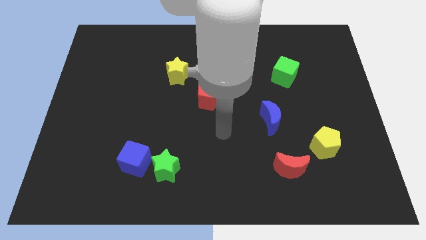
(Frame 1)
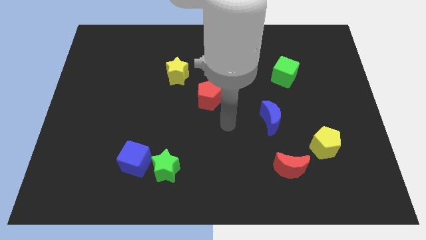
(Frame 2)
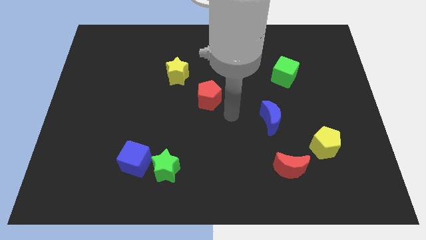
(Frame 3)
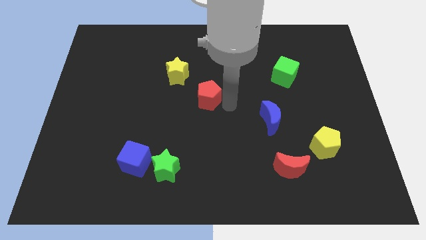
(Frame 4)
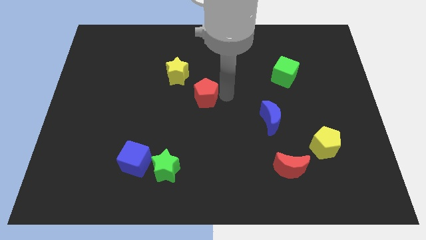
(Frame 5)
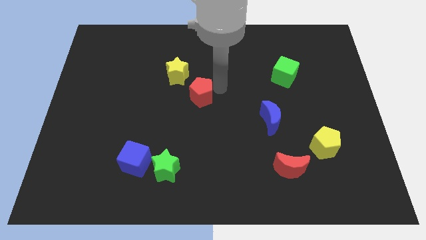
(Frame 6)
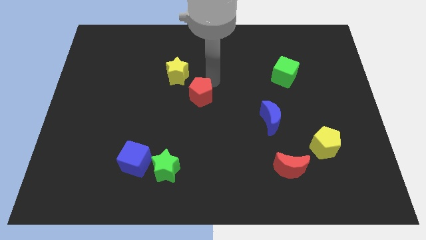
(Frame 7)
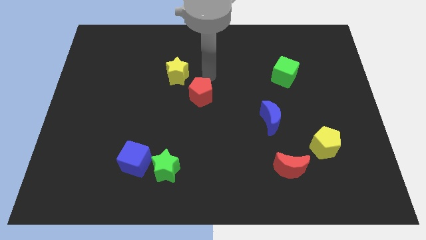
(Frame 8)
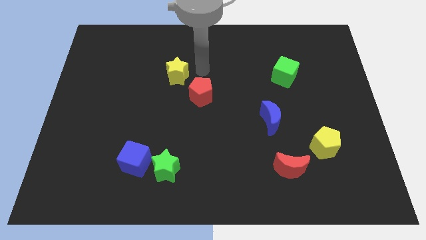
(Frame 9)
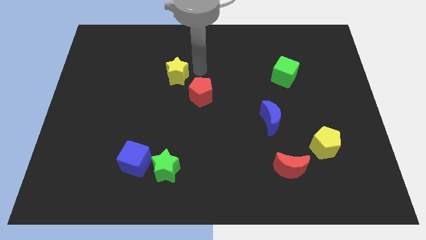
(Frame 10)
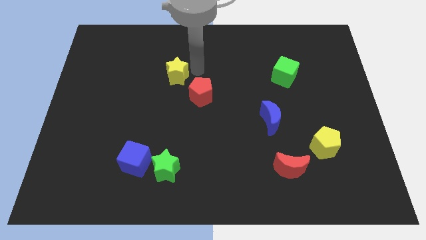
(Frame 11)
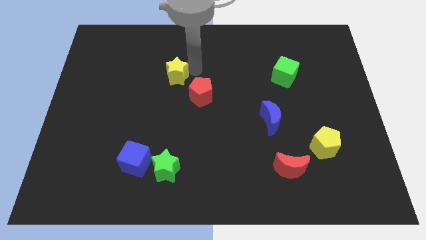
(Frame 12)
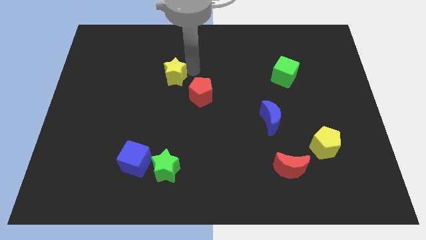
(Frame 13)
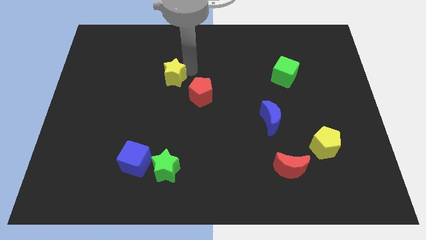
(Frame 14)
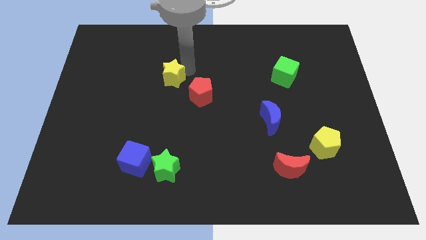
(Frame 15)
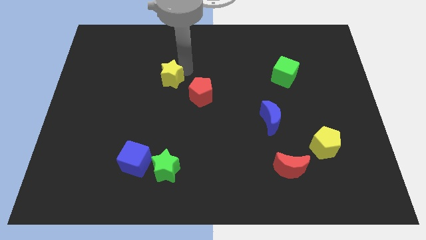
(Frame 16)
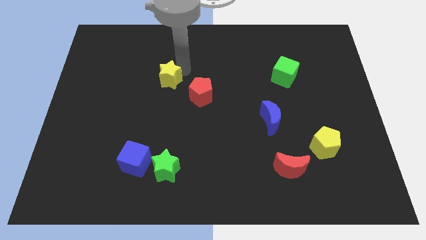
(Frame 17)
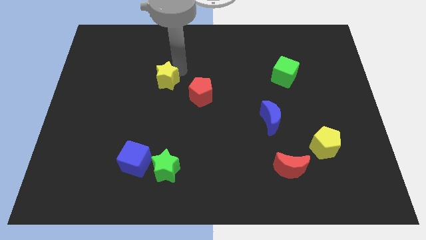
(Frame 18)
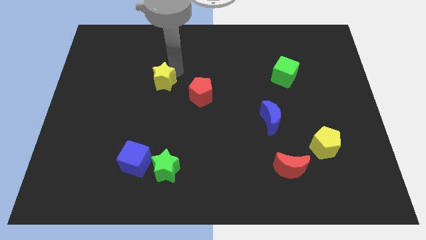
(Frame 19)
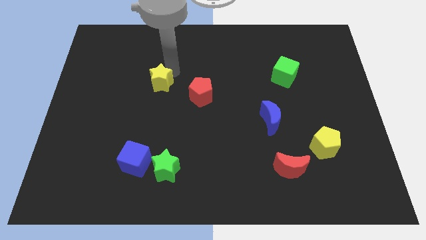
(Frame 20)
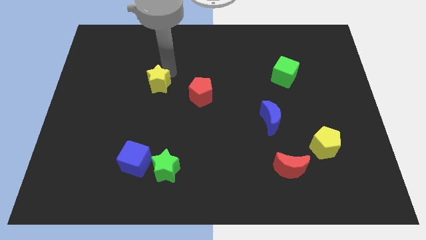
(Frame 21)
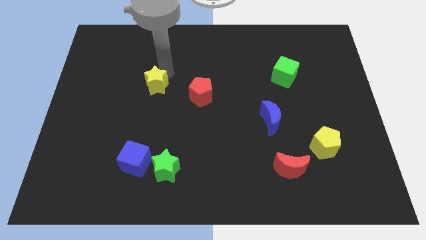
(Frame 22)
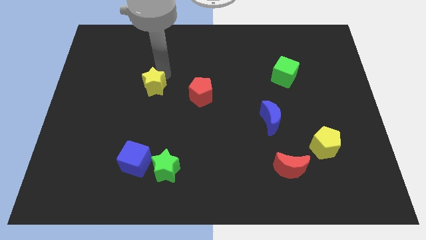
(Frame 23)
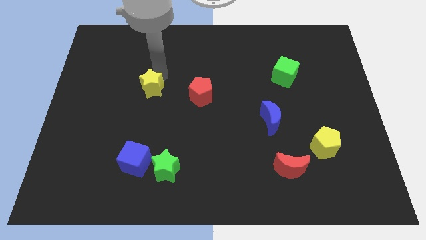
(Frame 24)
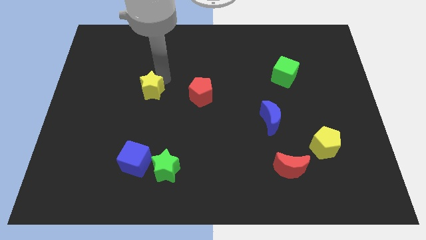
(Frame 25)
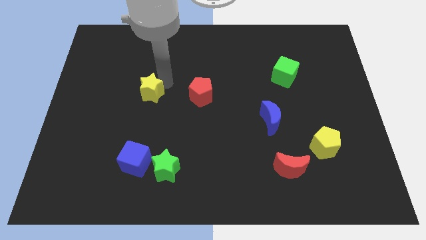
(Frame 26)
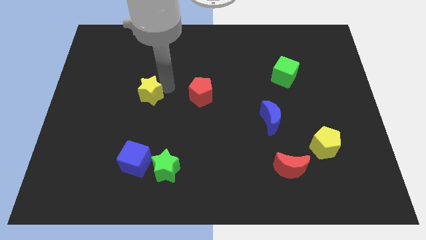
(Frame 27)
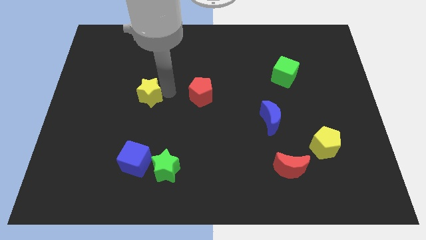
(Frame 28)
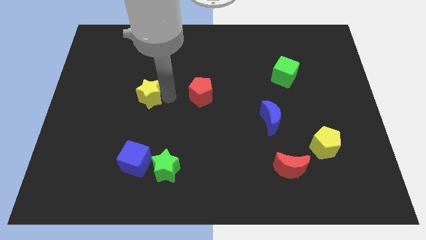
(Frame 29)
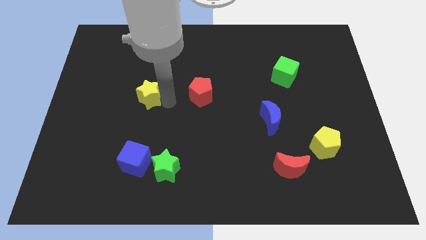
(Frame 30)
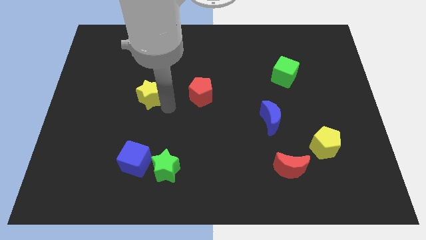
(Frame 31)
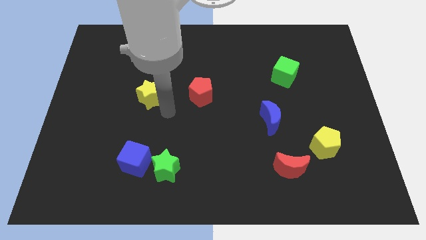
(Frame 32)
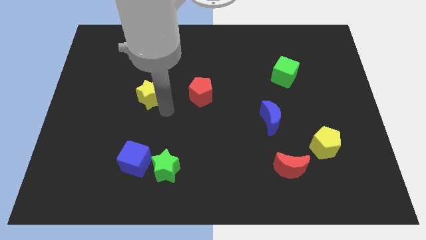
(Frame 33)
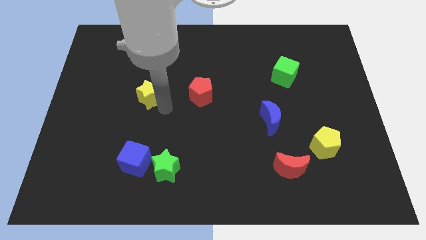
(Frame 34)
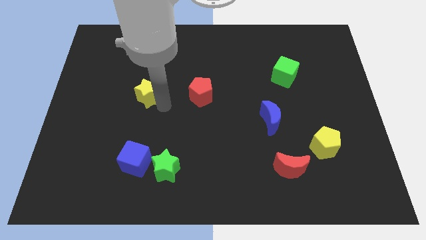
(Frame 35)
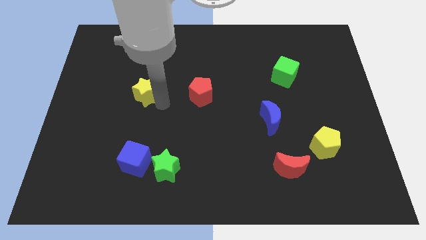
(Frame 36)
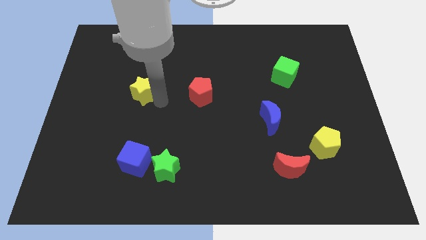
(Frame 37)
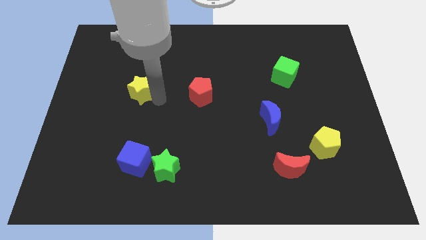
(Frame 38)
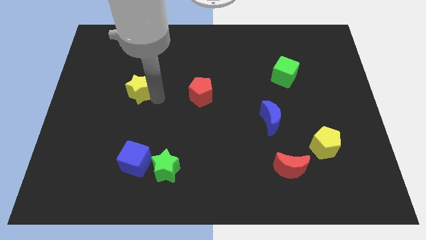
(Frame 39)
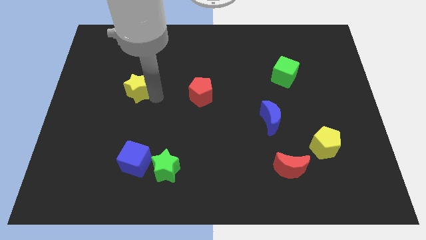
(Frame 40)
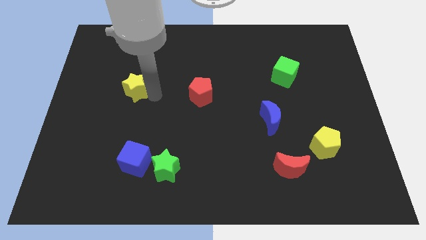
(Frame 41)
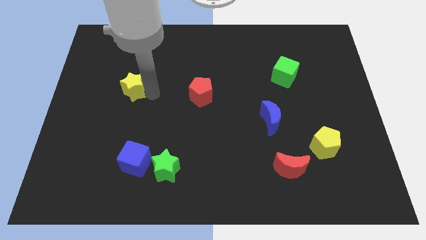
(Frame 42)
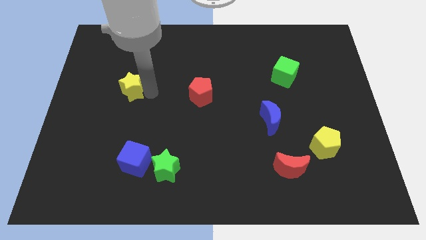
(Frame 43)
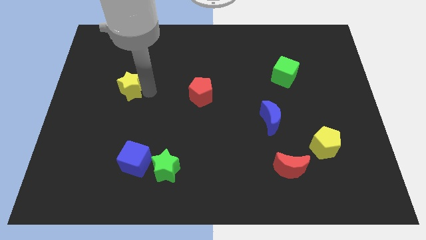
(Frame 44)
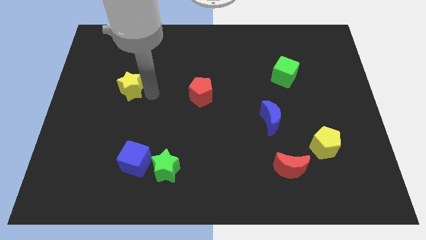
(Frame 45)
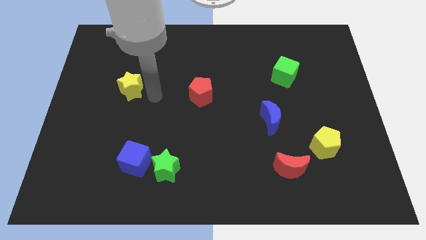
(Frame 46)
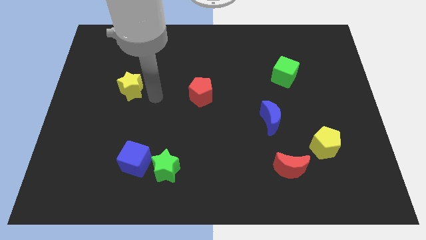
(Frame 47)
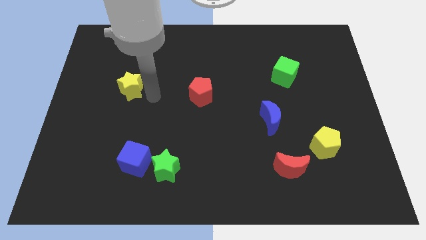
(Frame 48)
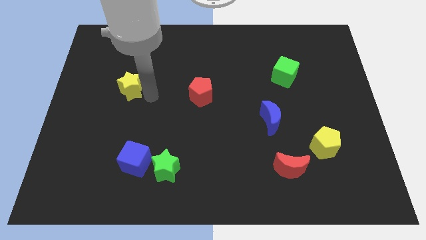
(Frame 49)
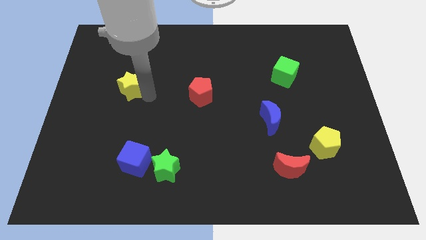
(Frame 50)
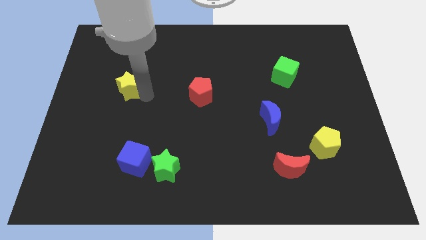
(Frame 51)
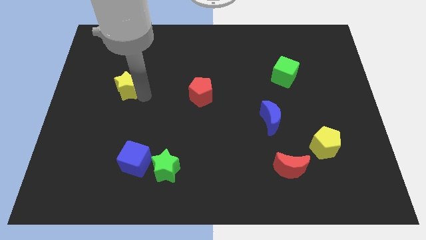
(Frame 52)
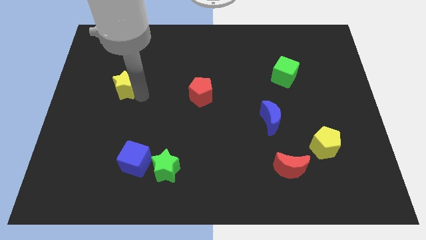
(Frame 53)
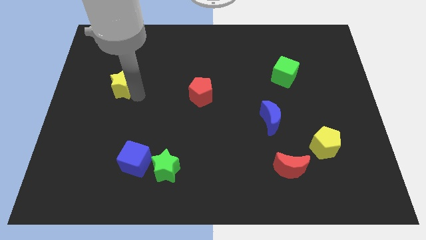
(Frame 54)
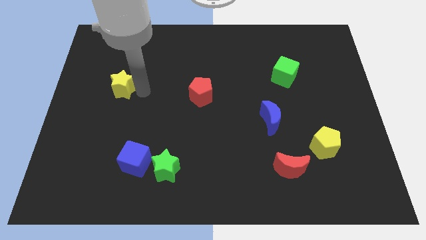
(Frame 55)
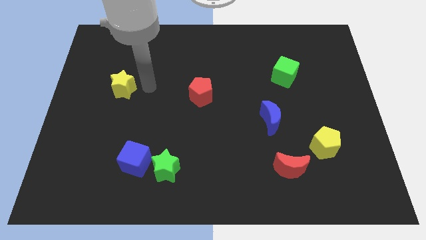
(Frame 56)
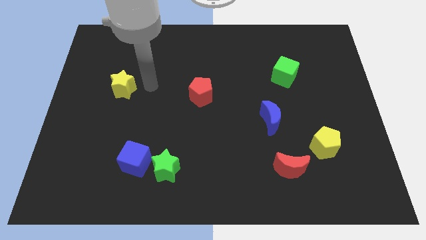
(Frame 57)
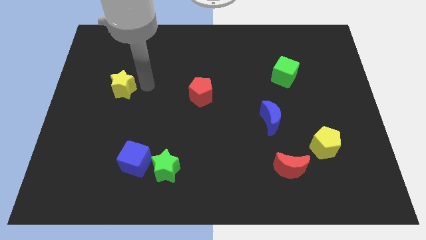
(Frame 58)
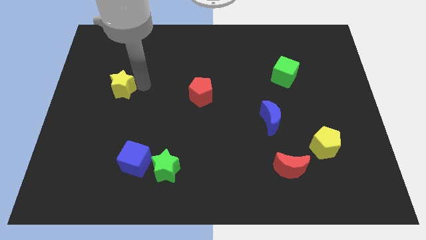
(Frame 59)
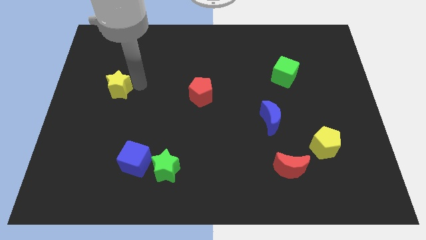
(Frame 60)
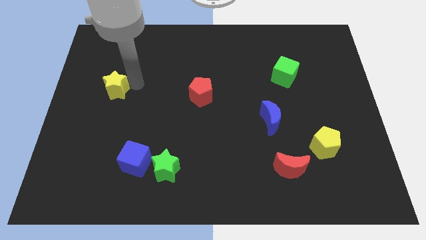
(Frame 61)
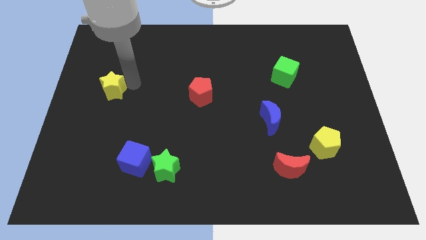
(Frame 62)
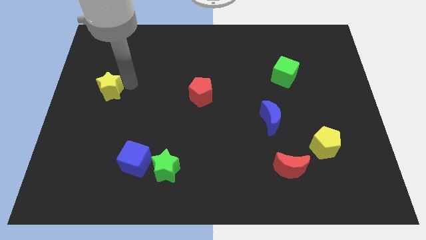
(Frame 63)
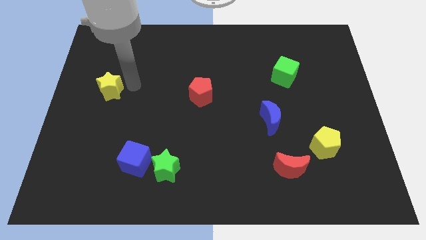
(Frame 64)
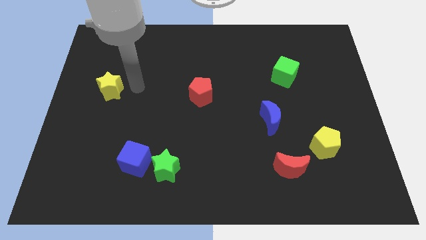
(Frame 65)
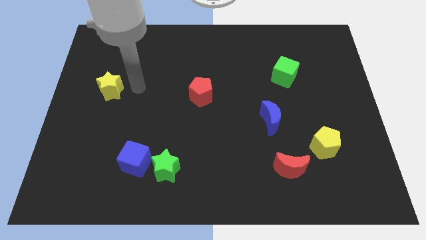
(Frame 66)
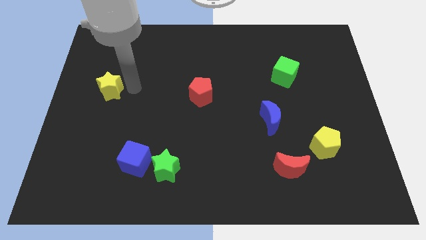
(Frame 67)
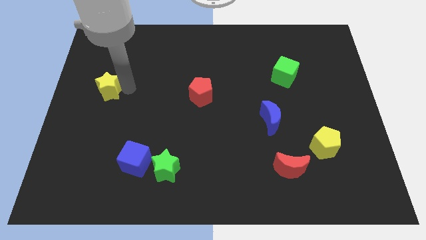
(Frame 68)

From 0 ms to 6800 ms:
push the yellow star to the left side

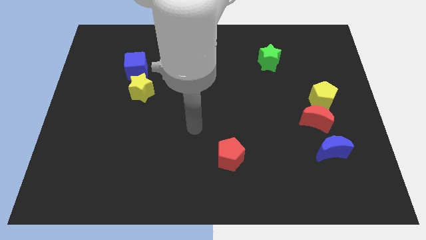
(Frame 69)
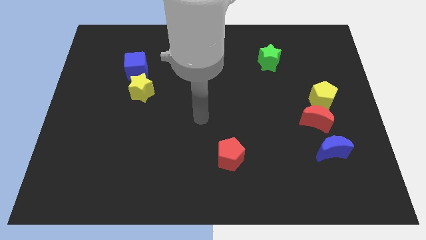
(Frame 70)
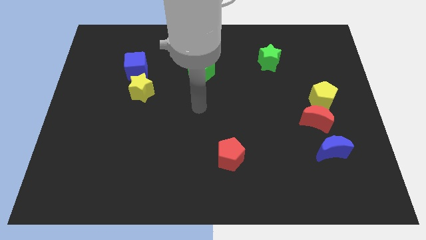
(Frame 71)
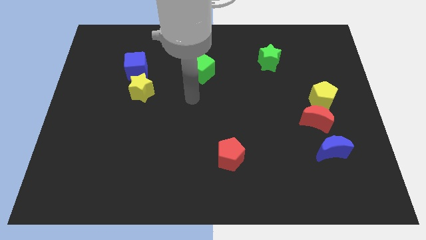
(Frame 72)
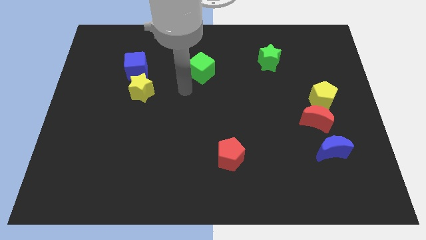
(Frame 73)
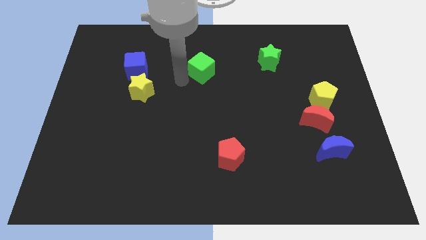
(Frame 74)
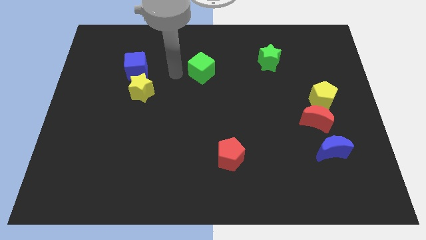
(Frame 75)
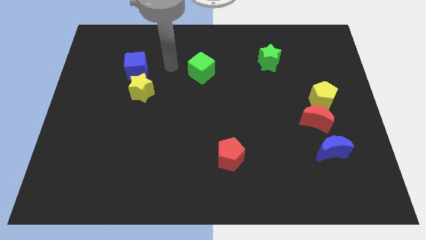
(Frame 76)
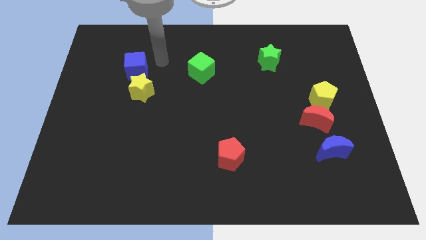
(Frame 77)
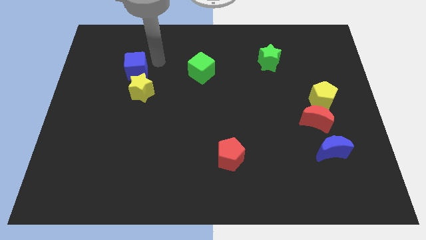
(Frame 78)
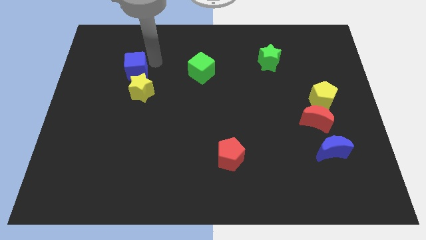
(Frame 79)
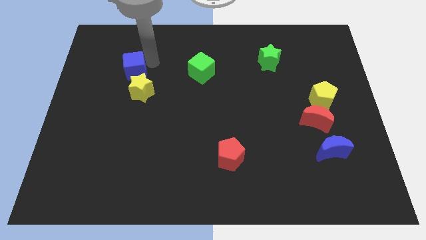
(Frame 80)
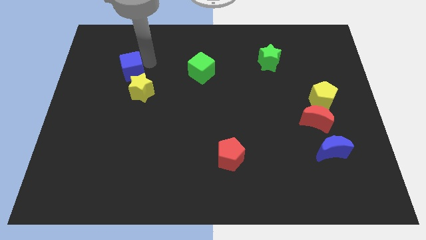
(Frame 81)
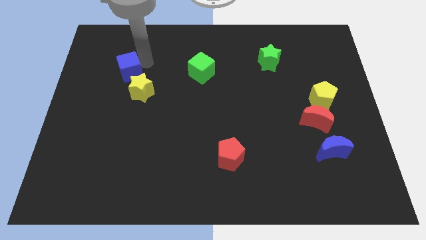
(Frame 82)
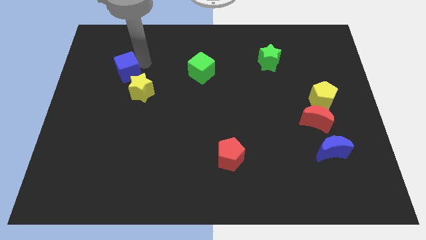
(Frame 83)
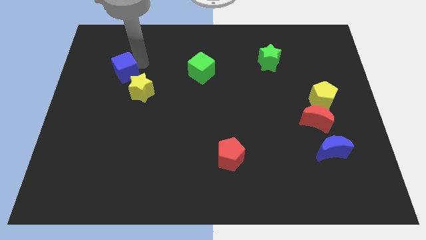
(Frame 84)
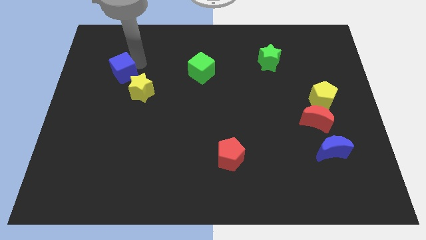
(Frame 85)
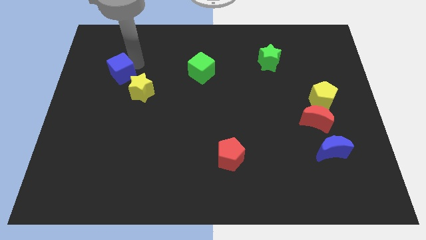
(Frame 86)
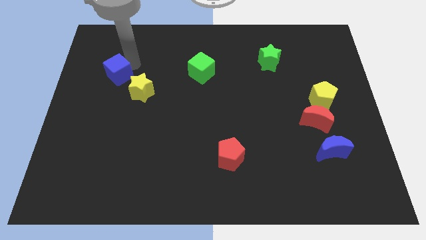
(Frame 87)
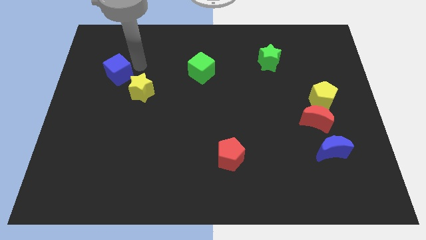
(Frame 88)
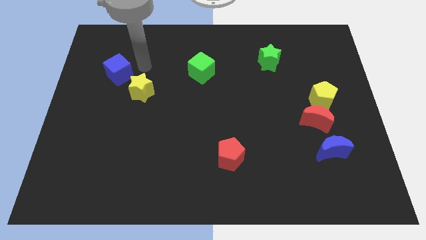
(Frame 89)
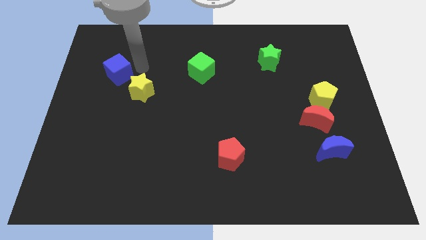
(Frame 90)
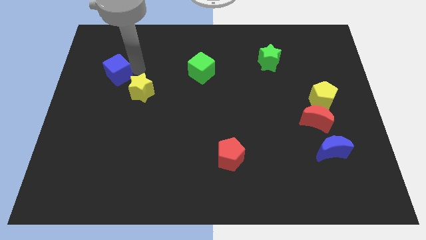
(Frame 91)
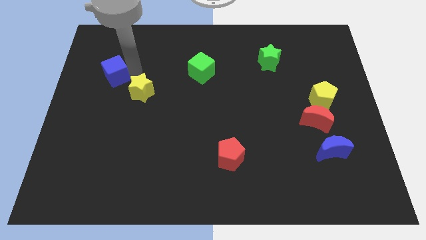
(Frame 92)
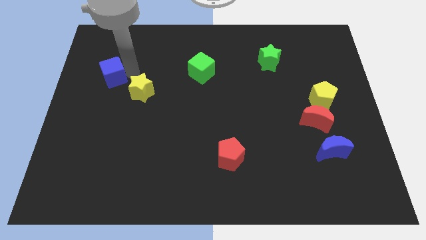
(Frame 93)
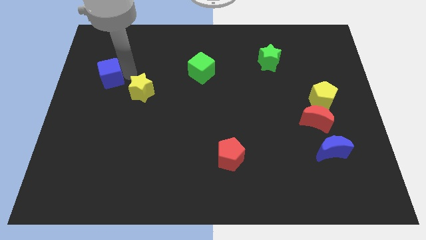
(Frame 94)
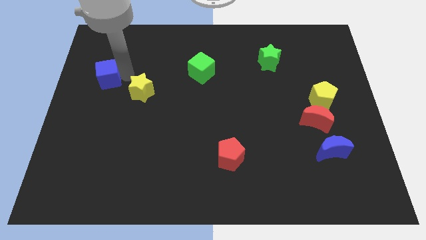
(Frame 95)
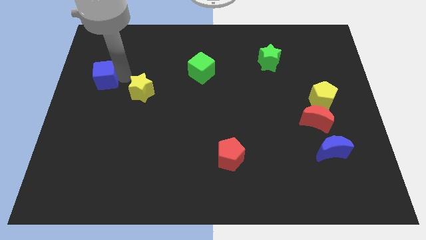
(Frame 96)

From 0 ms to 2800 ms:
push the blue cube to the left side
